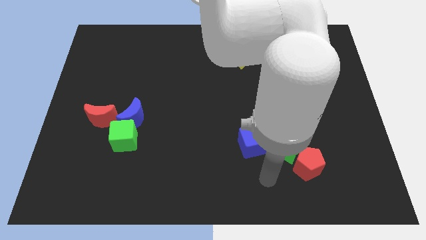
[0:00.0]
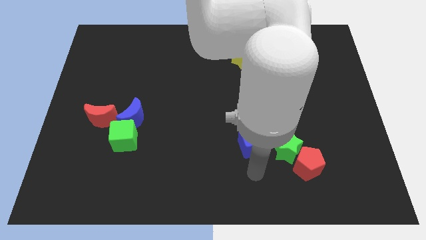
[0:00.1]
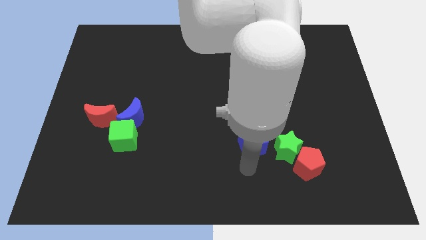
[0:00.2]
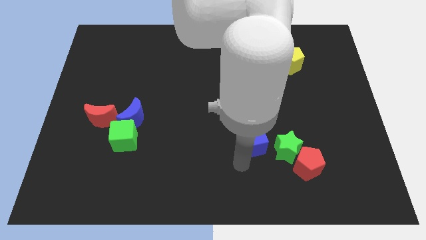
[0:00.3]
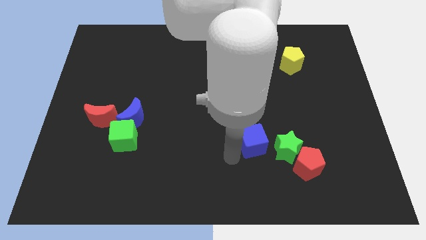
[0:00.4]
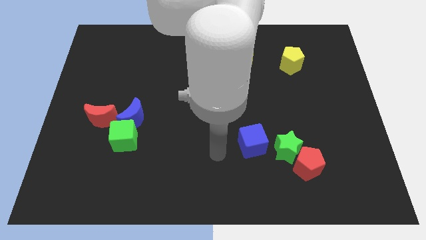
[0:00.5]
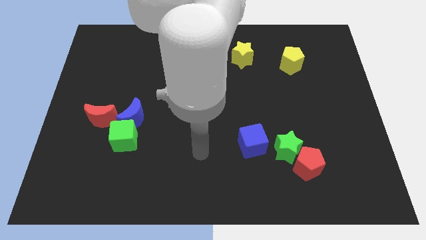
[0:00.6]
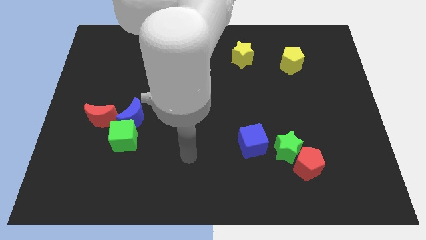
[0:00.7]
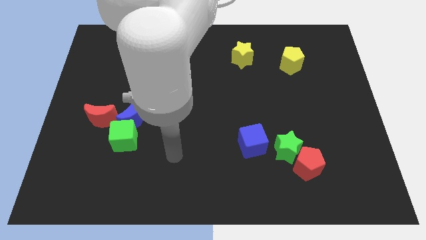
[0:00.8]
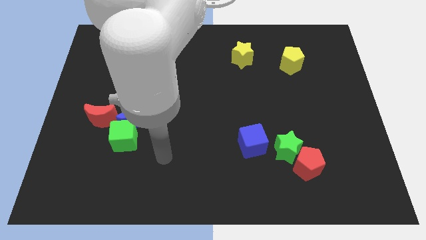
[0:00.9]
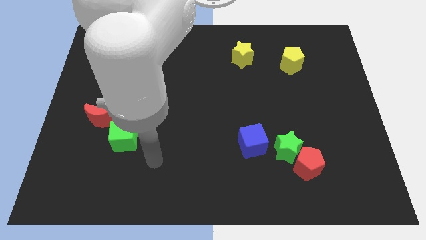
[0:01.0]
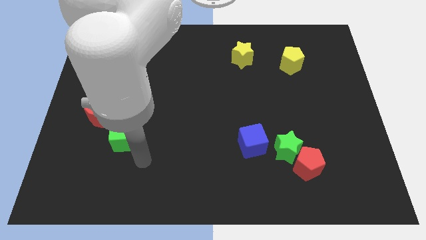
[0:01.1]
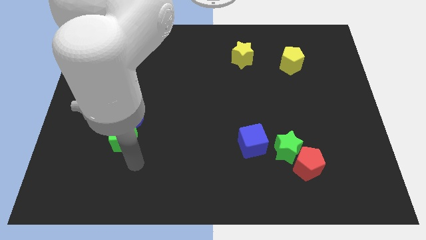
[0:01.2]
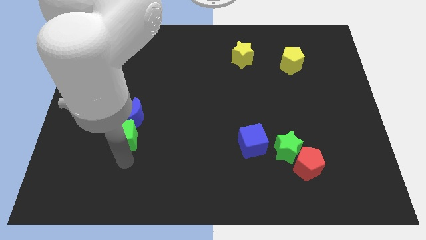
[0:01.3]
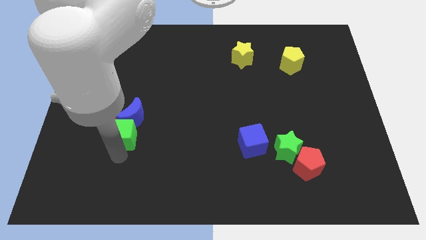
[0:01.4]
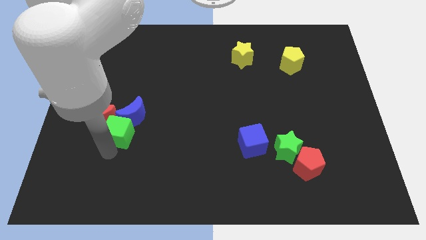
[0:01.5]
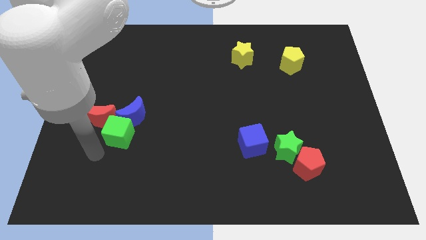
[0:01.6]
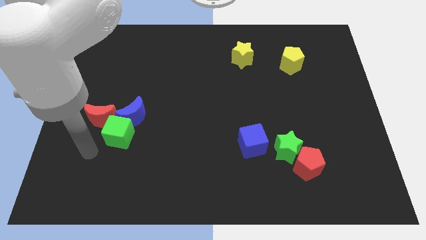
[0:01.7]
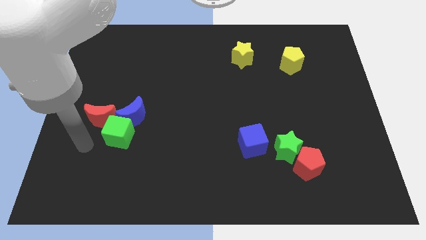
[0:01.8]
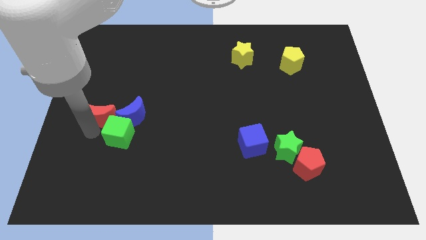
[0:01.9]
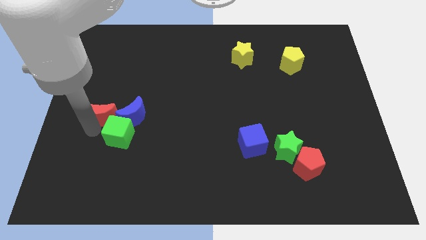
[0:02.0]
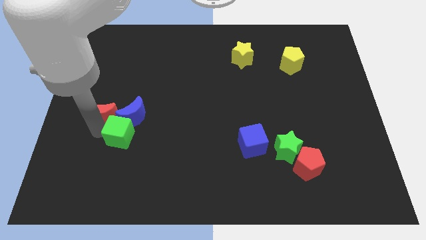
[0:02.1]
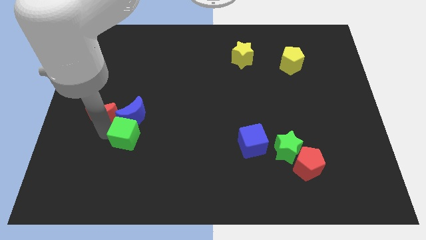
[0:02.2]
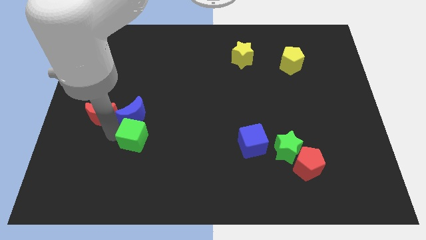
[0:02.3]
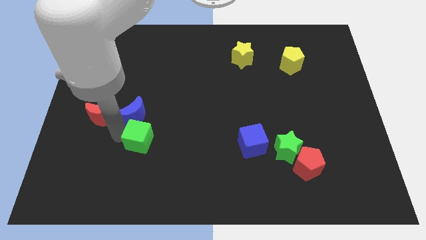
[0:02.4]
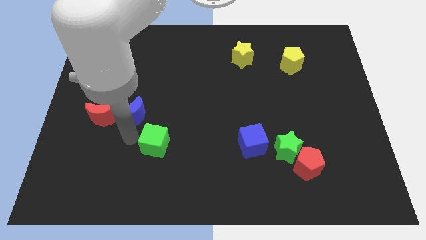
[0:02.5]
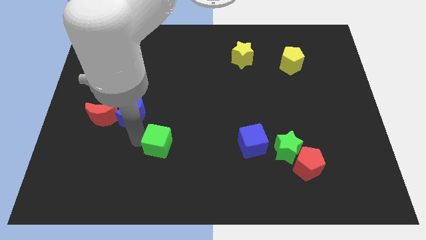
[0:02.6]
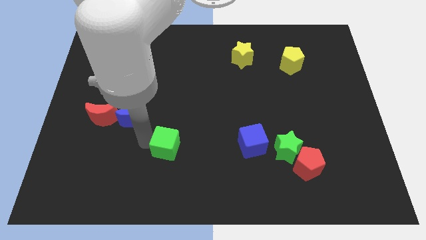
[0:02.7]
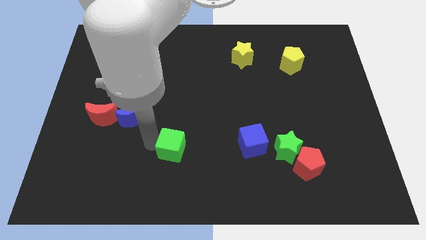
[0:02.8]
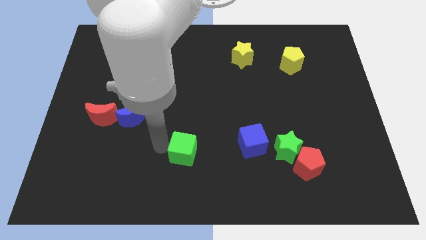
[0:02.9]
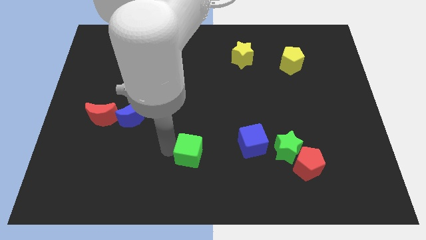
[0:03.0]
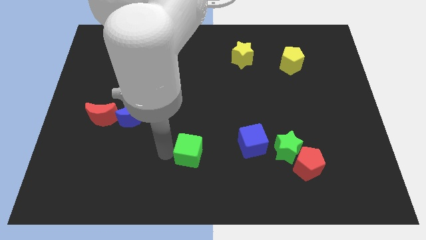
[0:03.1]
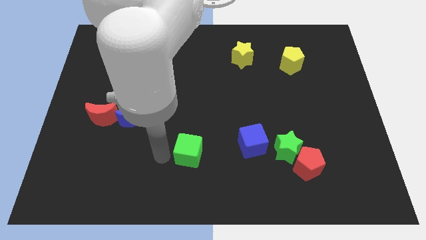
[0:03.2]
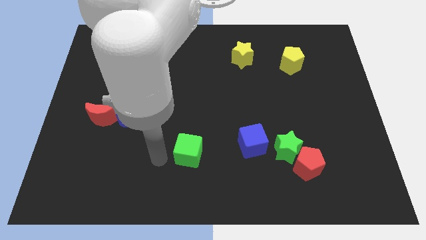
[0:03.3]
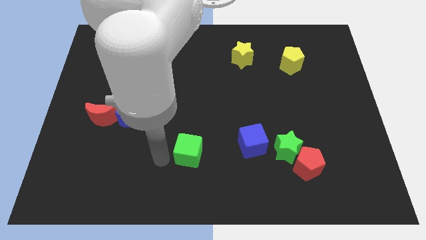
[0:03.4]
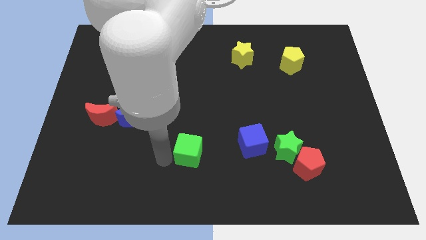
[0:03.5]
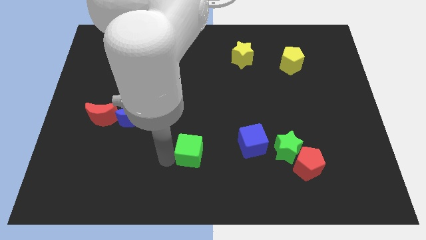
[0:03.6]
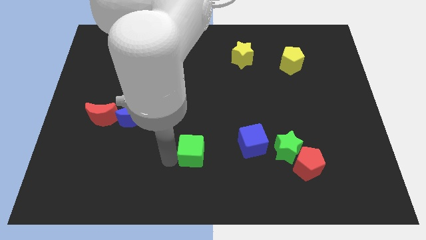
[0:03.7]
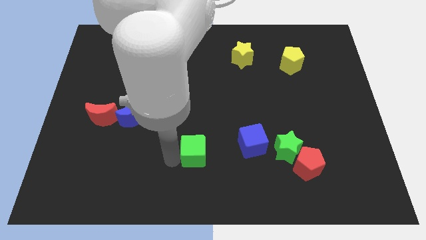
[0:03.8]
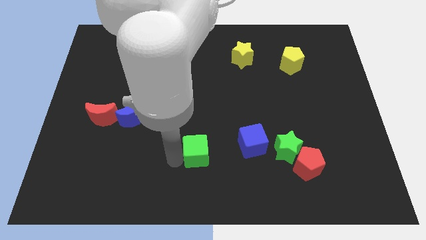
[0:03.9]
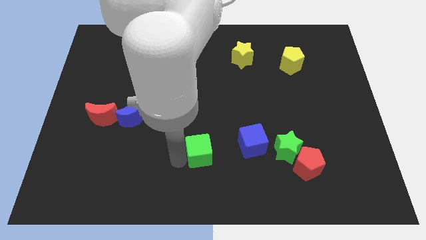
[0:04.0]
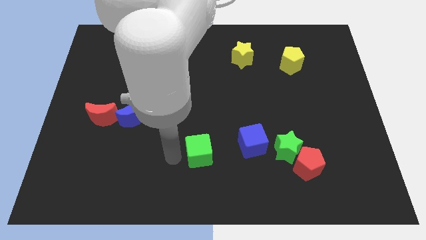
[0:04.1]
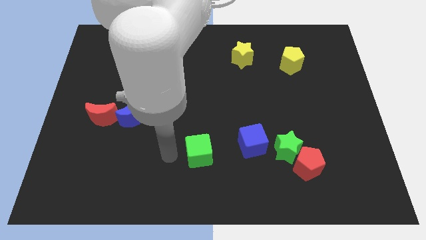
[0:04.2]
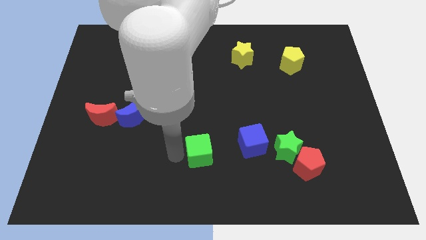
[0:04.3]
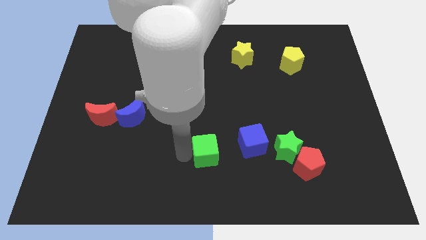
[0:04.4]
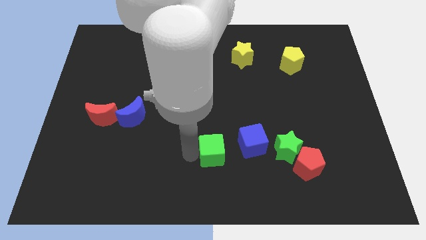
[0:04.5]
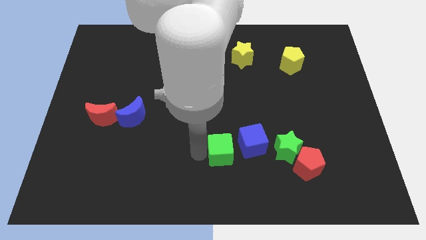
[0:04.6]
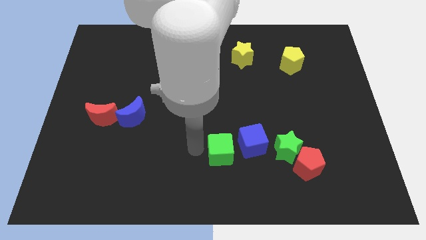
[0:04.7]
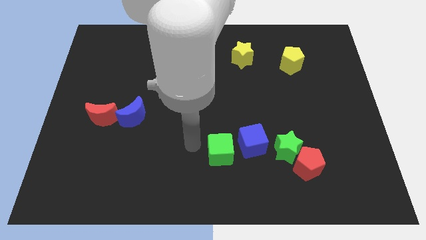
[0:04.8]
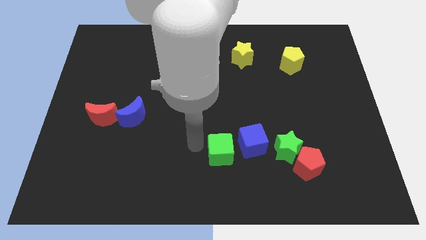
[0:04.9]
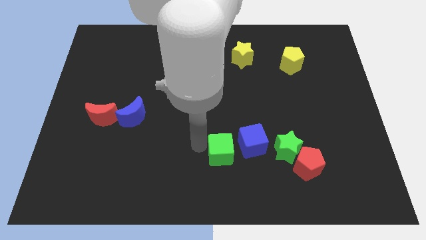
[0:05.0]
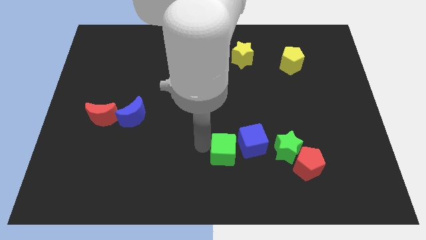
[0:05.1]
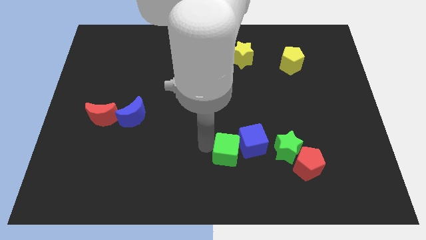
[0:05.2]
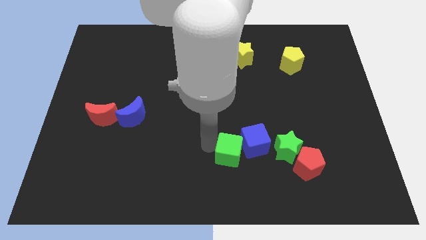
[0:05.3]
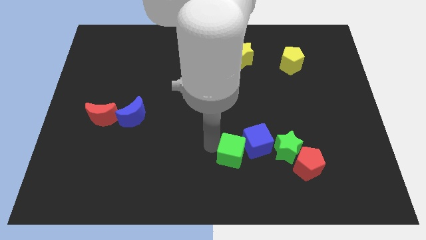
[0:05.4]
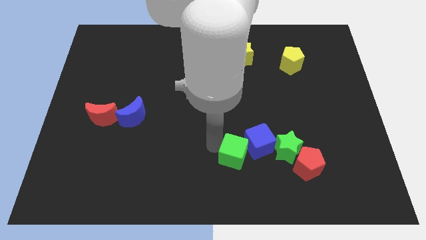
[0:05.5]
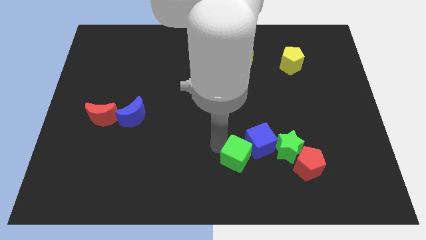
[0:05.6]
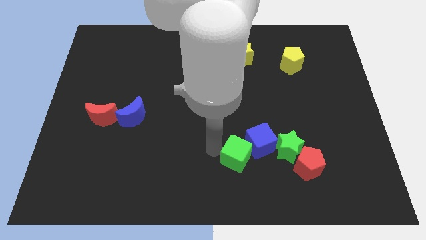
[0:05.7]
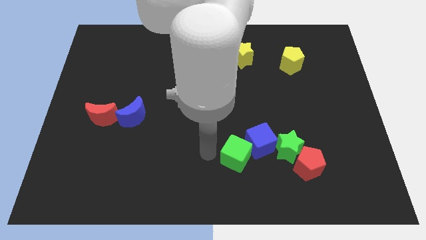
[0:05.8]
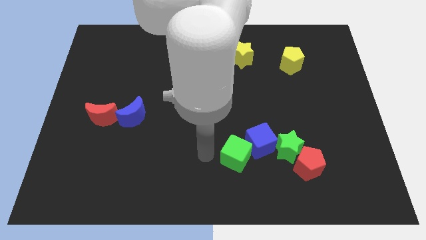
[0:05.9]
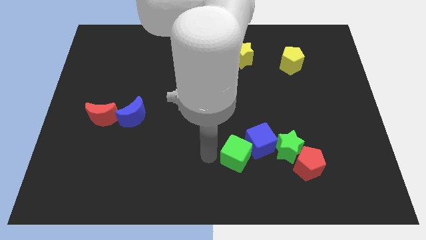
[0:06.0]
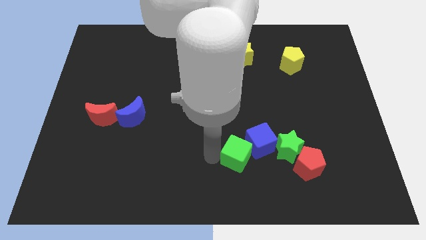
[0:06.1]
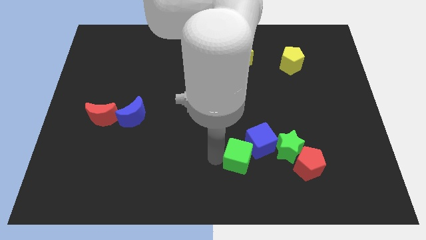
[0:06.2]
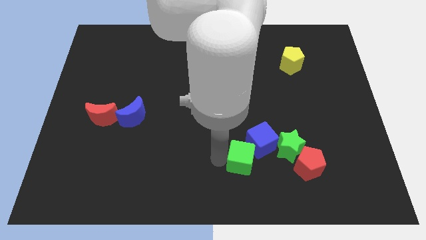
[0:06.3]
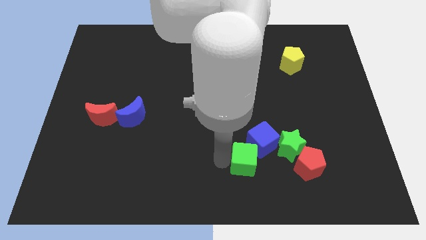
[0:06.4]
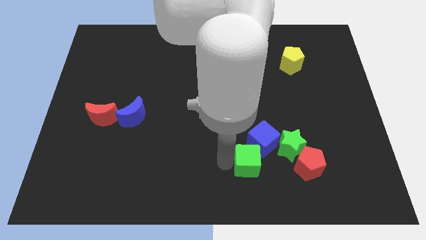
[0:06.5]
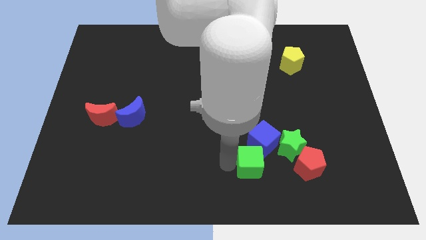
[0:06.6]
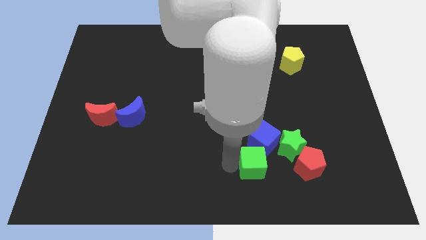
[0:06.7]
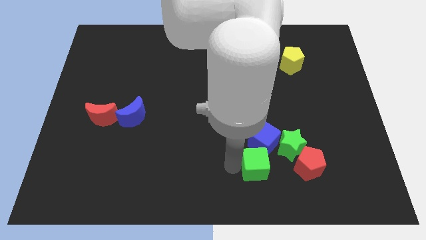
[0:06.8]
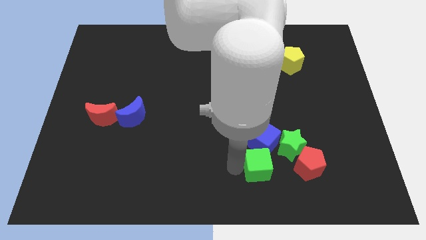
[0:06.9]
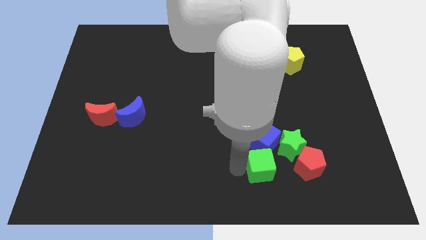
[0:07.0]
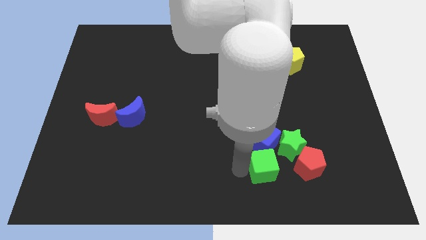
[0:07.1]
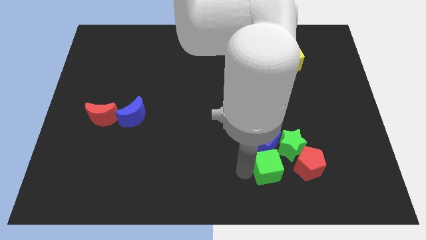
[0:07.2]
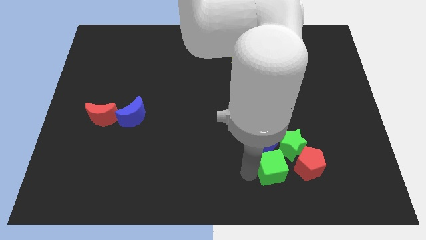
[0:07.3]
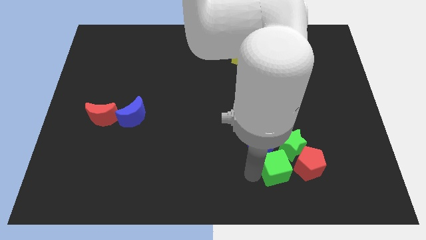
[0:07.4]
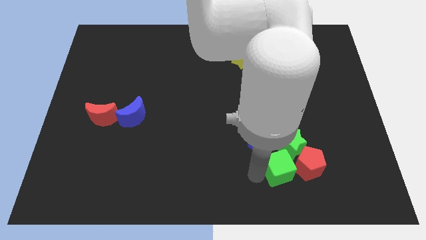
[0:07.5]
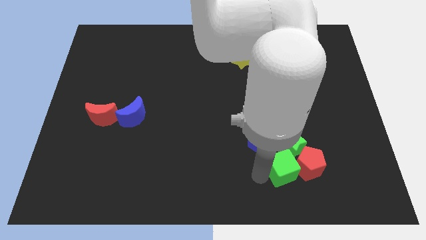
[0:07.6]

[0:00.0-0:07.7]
slide the green cube towards the green star
